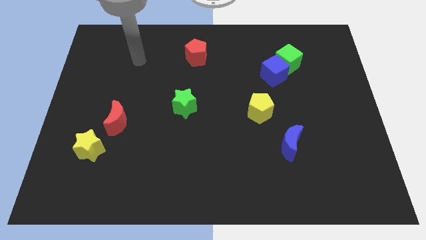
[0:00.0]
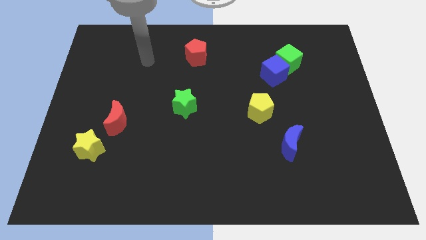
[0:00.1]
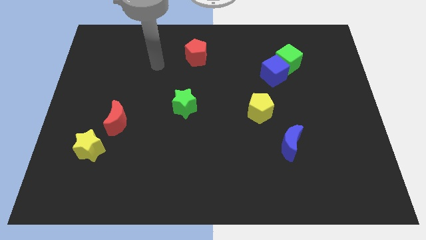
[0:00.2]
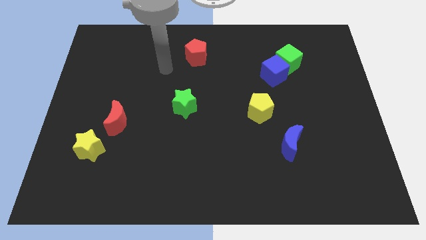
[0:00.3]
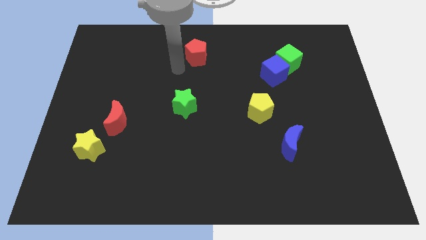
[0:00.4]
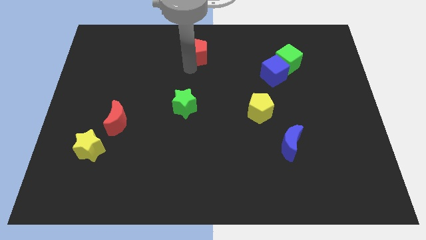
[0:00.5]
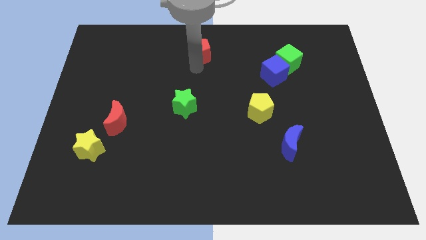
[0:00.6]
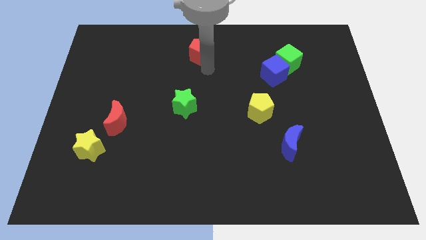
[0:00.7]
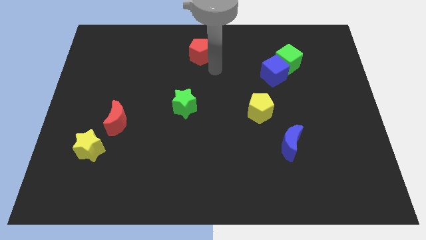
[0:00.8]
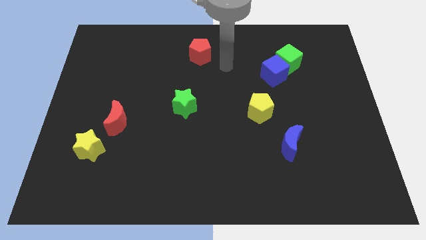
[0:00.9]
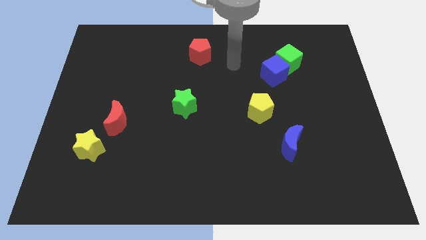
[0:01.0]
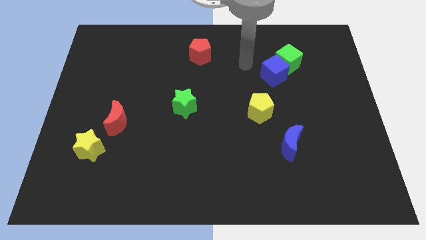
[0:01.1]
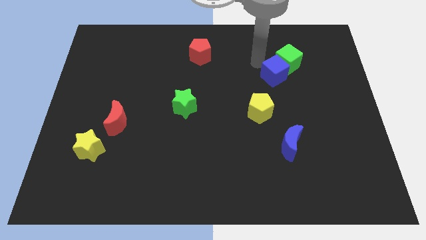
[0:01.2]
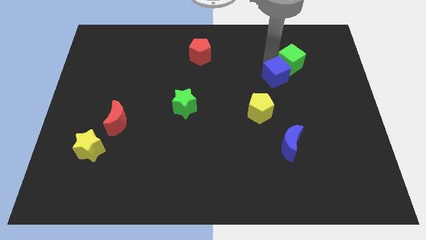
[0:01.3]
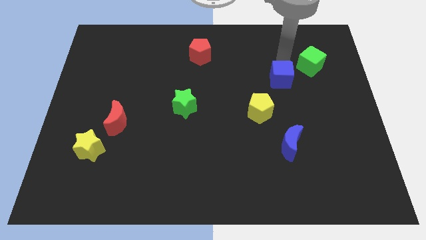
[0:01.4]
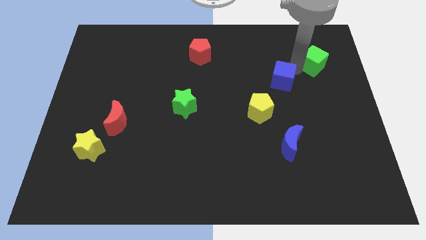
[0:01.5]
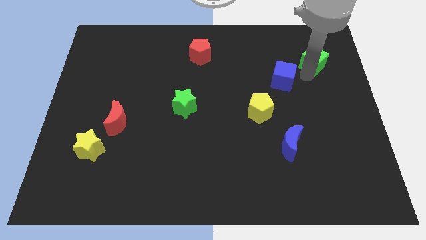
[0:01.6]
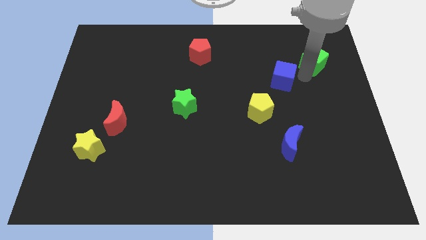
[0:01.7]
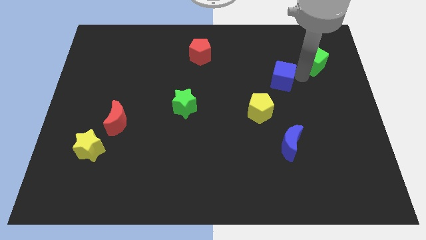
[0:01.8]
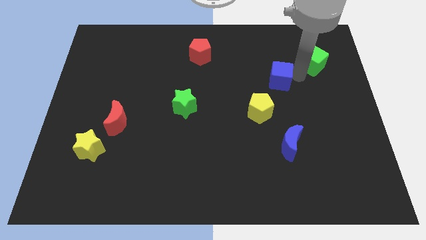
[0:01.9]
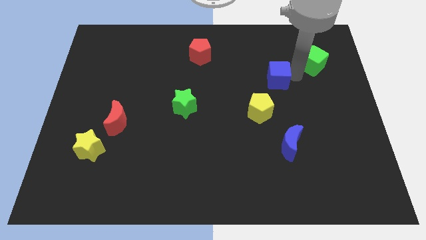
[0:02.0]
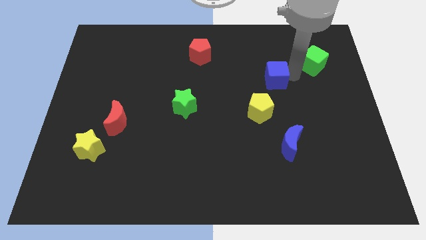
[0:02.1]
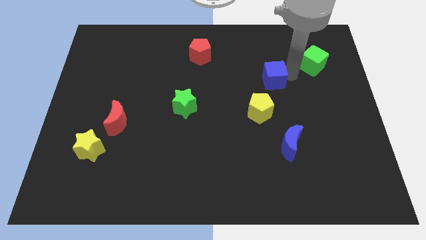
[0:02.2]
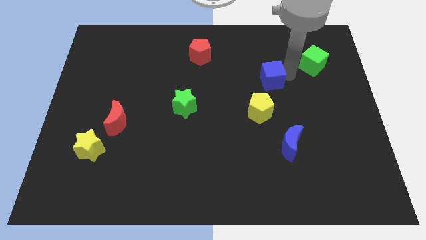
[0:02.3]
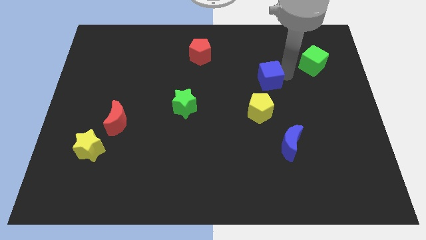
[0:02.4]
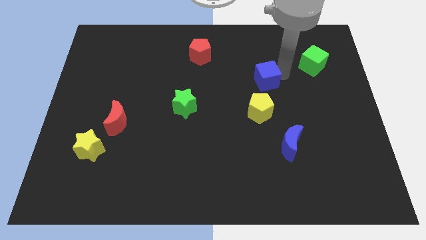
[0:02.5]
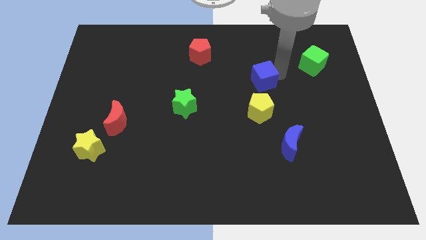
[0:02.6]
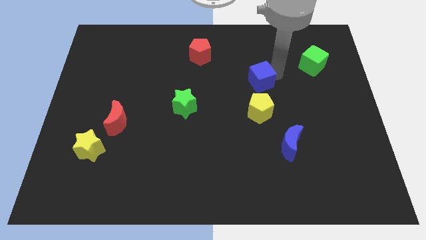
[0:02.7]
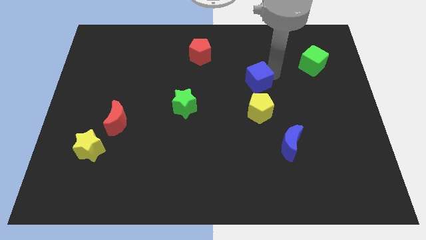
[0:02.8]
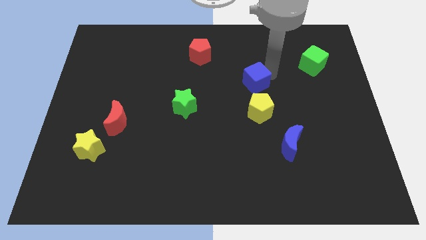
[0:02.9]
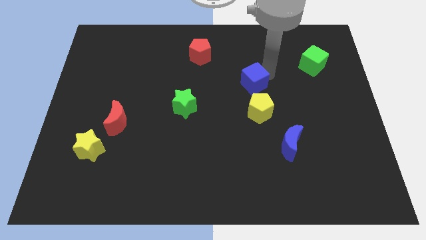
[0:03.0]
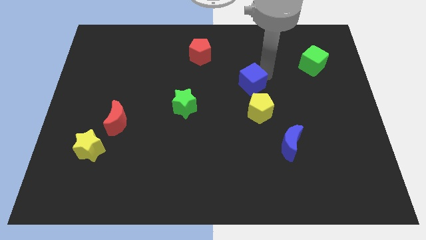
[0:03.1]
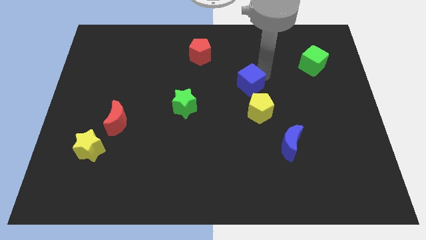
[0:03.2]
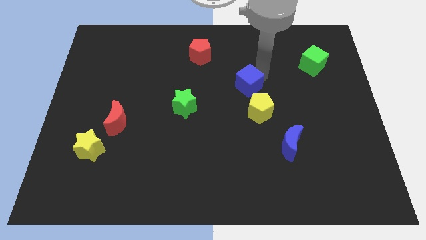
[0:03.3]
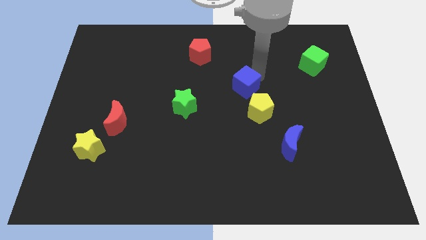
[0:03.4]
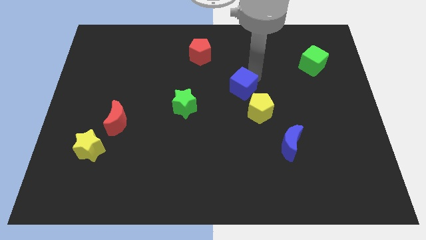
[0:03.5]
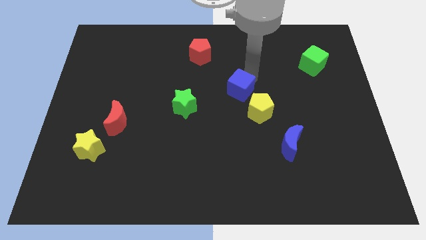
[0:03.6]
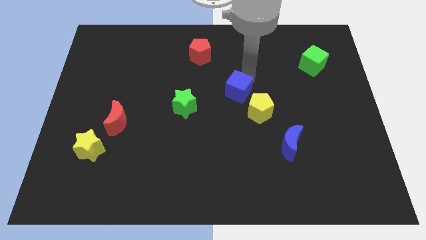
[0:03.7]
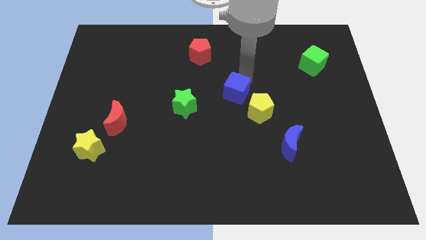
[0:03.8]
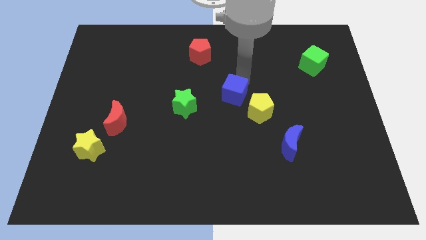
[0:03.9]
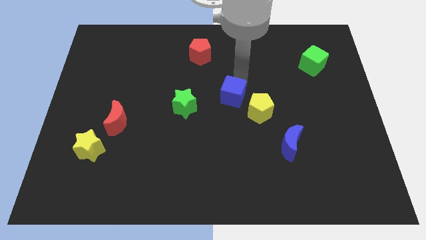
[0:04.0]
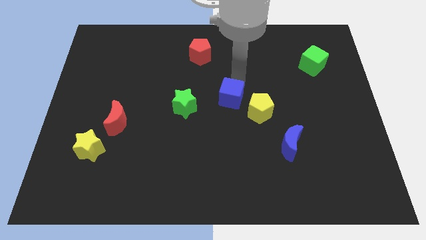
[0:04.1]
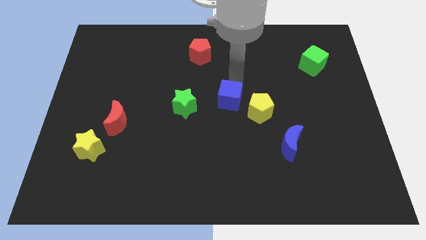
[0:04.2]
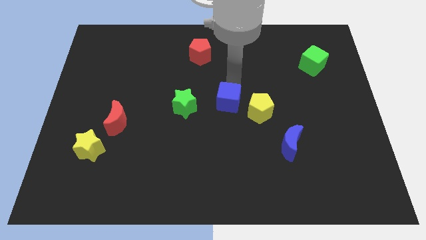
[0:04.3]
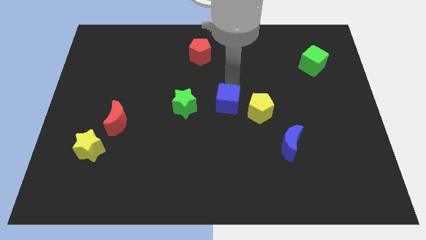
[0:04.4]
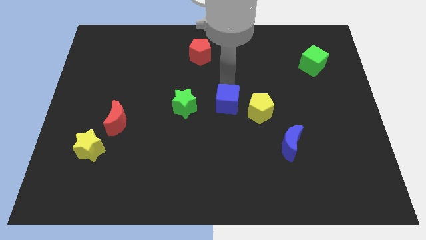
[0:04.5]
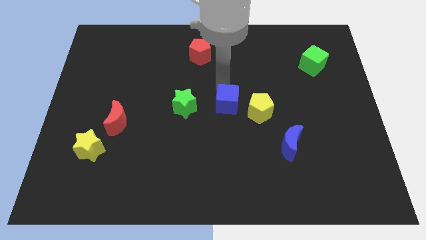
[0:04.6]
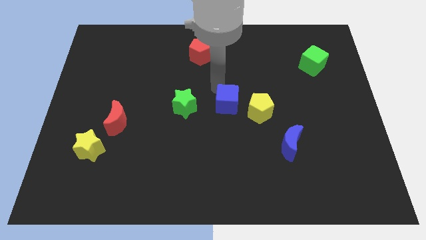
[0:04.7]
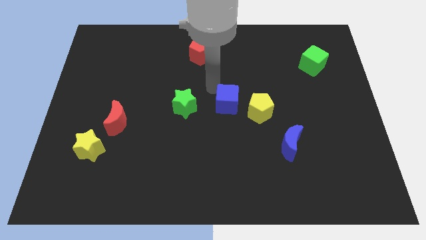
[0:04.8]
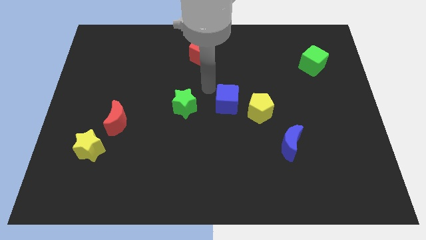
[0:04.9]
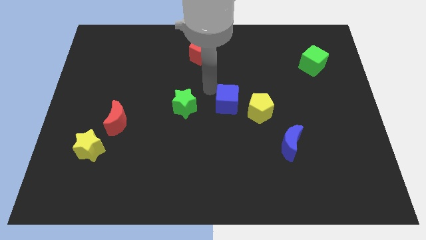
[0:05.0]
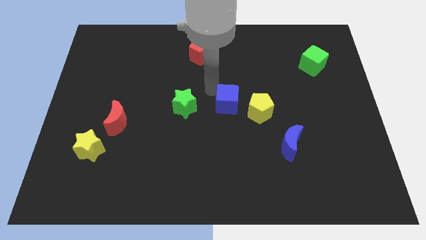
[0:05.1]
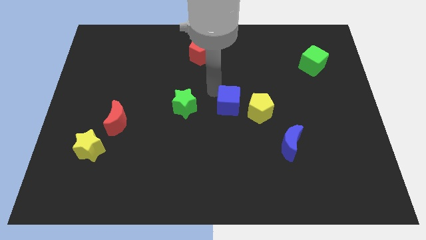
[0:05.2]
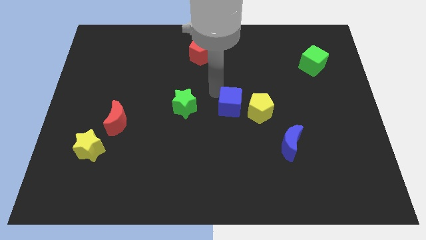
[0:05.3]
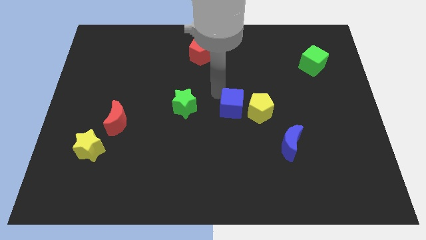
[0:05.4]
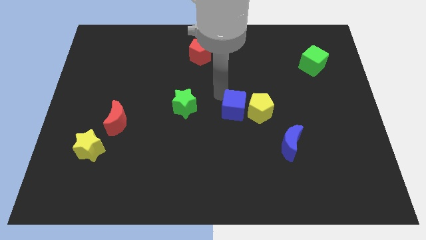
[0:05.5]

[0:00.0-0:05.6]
push the blue cube diagonally down and to the left of the yellow pentagon

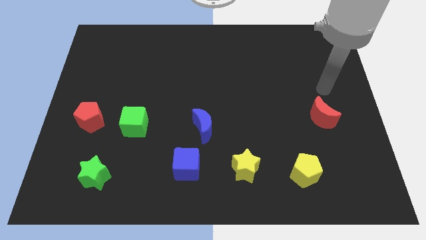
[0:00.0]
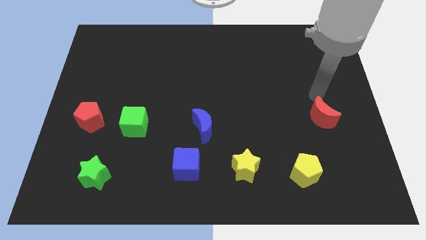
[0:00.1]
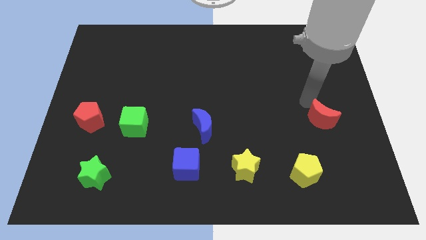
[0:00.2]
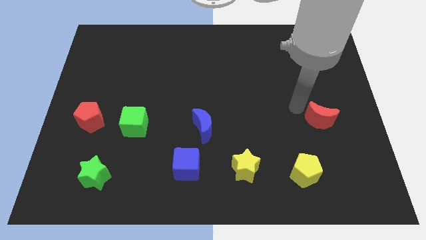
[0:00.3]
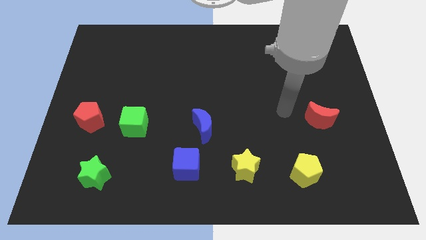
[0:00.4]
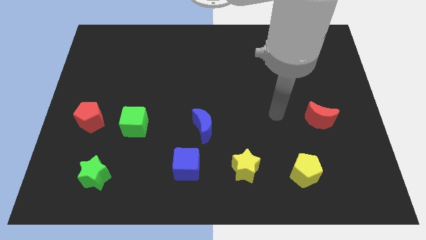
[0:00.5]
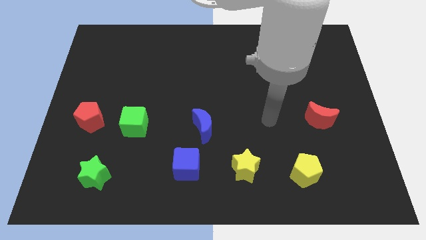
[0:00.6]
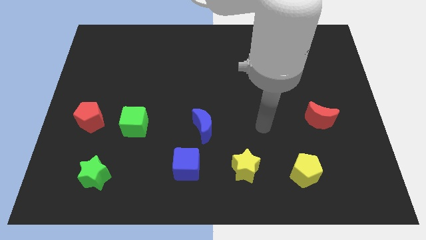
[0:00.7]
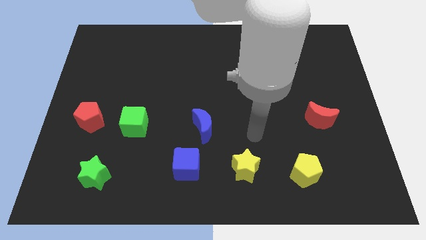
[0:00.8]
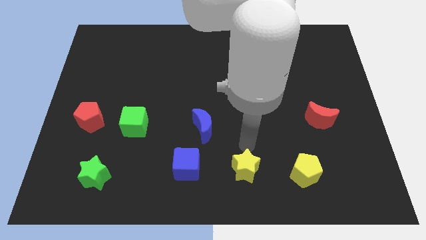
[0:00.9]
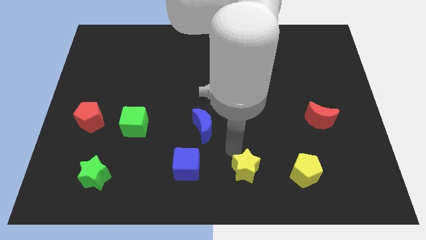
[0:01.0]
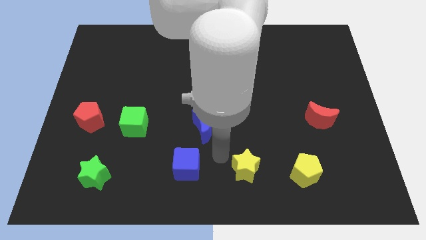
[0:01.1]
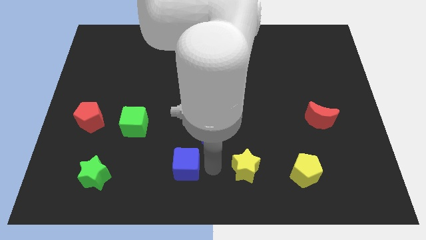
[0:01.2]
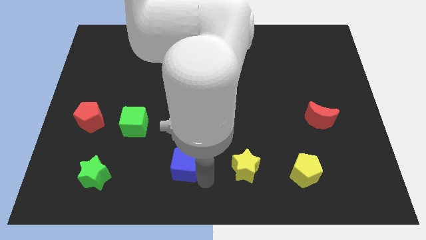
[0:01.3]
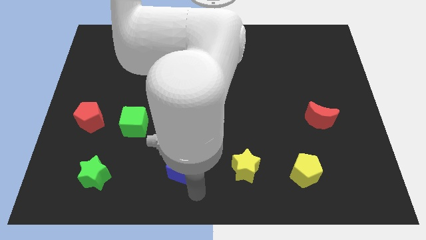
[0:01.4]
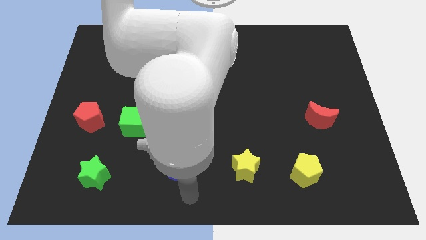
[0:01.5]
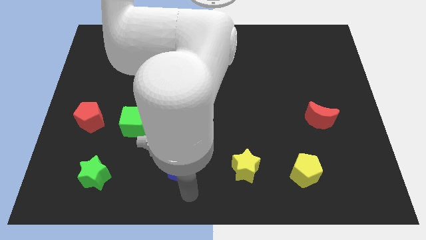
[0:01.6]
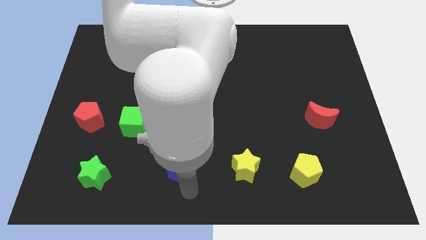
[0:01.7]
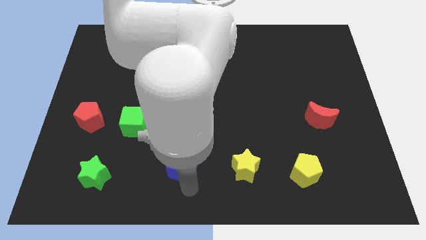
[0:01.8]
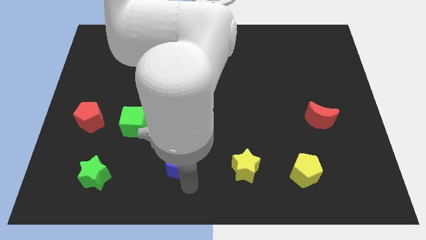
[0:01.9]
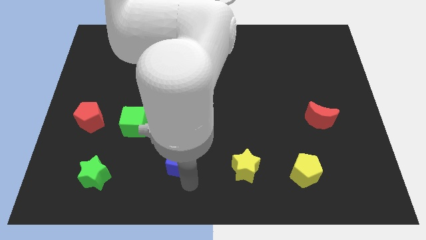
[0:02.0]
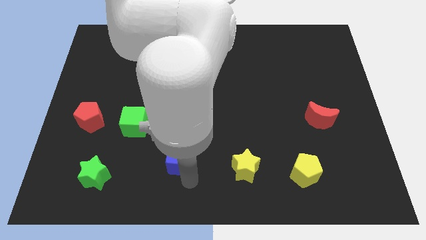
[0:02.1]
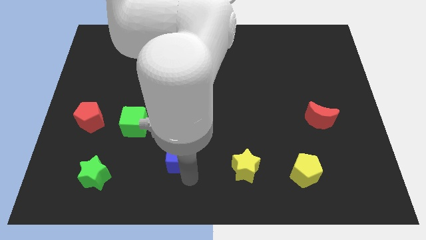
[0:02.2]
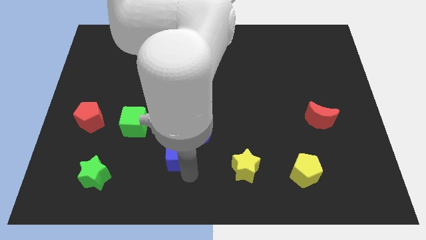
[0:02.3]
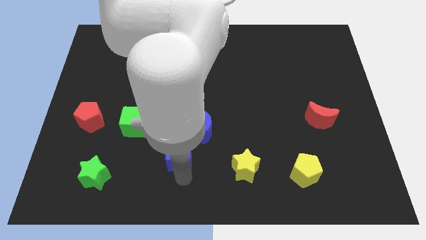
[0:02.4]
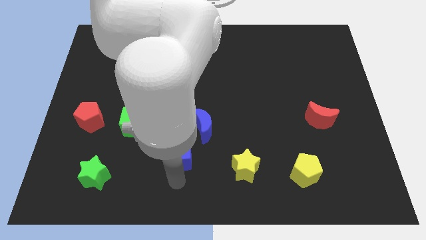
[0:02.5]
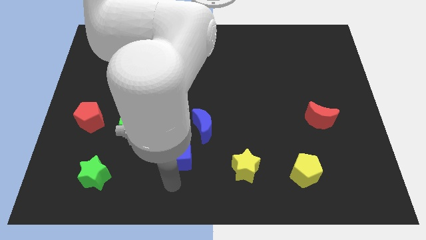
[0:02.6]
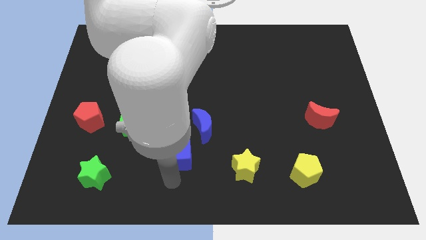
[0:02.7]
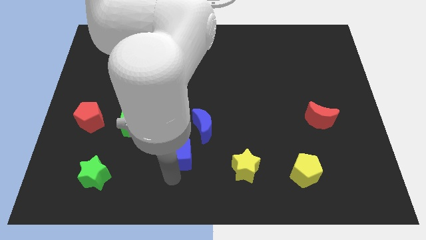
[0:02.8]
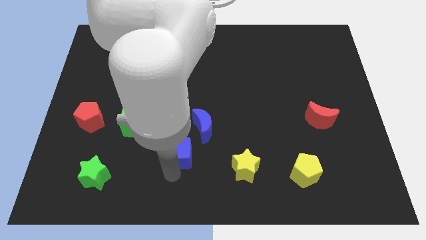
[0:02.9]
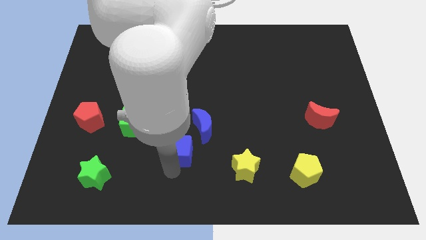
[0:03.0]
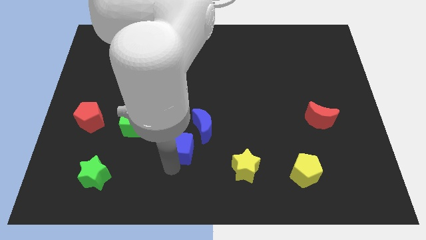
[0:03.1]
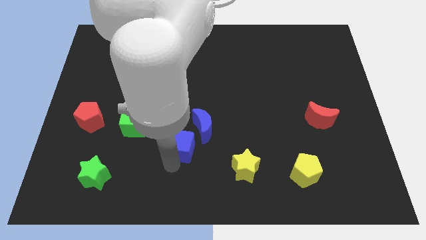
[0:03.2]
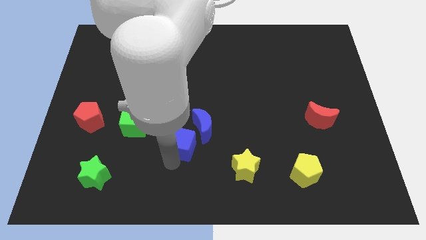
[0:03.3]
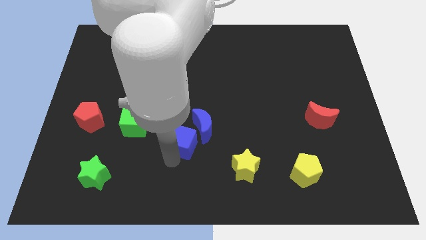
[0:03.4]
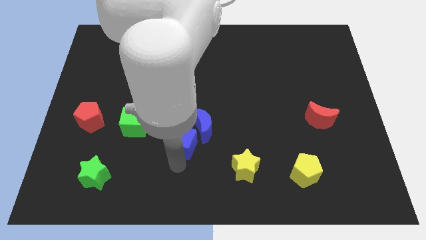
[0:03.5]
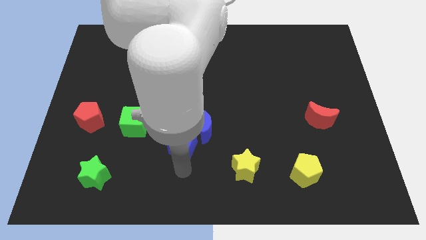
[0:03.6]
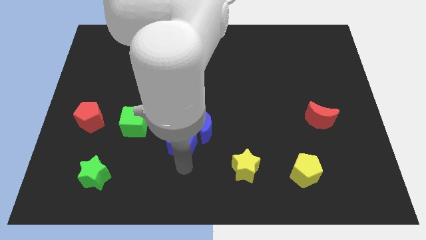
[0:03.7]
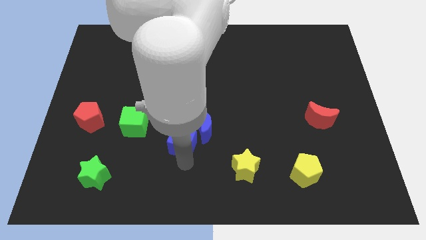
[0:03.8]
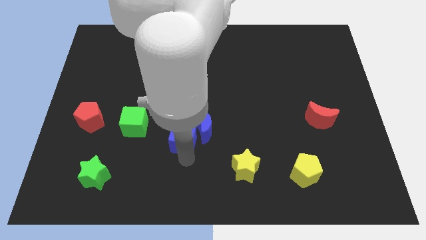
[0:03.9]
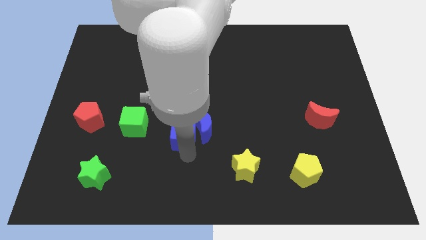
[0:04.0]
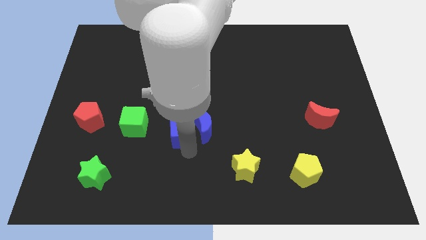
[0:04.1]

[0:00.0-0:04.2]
put the blue cube diagonally up and to the left of the blue moon
